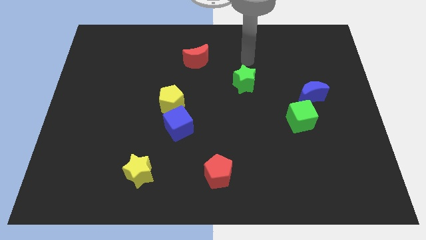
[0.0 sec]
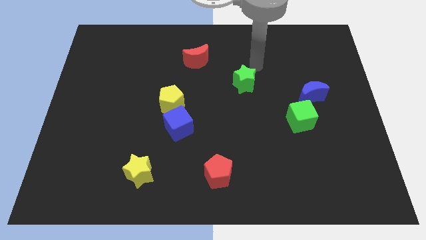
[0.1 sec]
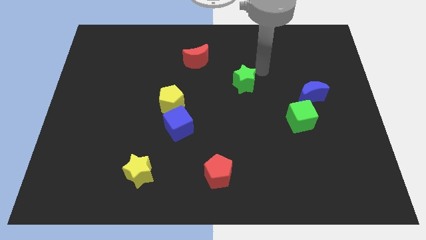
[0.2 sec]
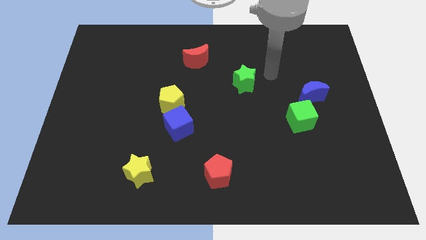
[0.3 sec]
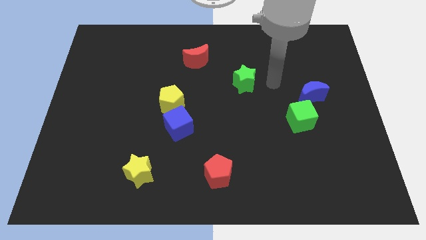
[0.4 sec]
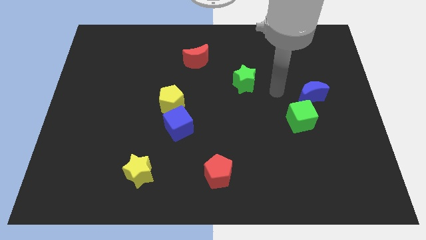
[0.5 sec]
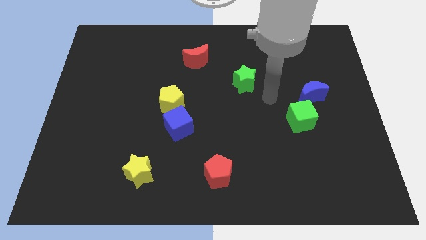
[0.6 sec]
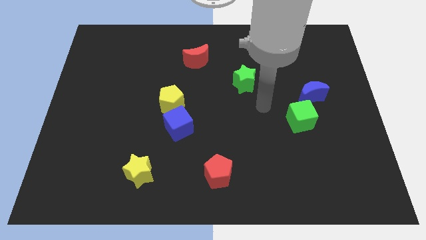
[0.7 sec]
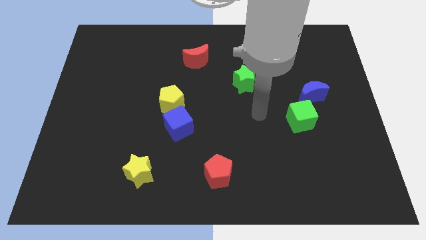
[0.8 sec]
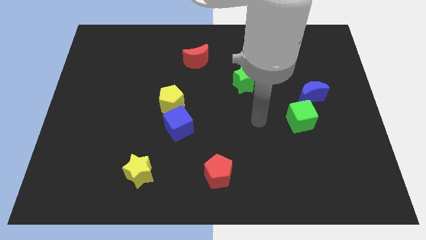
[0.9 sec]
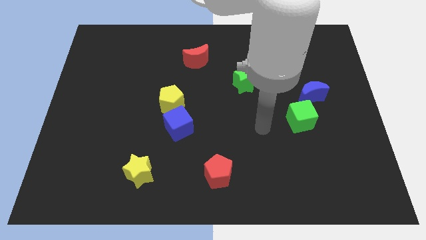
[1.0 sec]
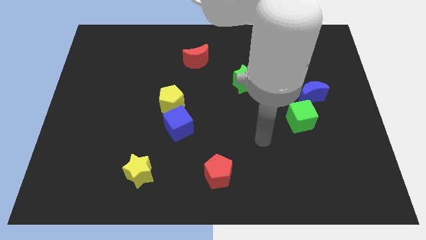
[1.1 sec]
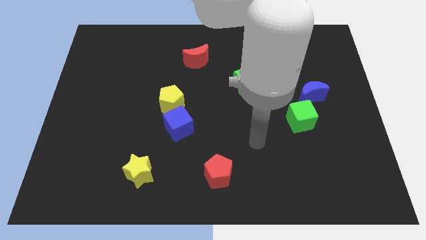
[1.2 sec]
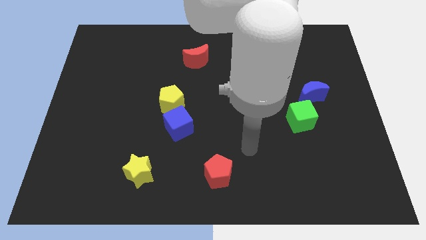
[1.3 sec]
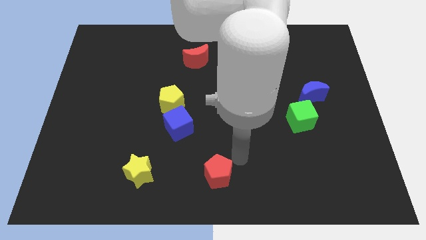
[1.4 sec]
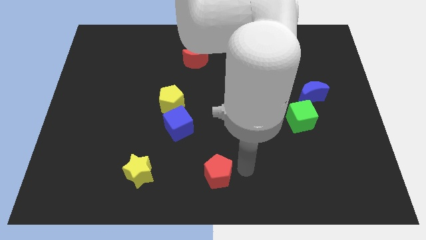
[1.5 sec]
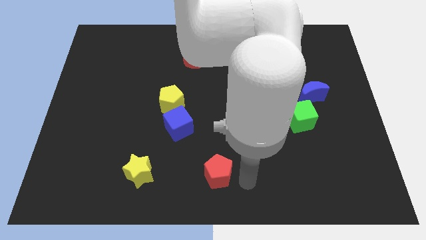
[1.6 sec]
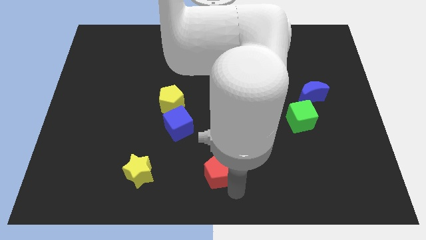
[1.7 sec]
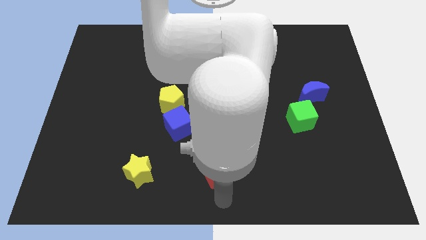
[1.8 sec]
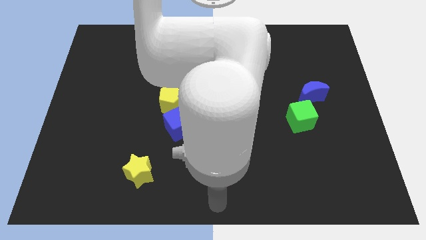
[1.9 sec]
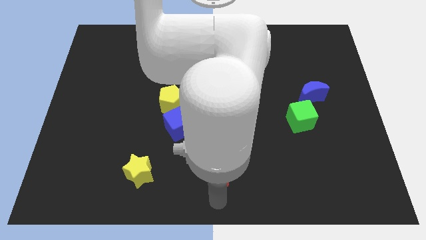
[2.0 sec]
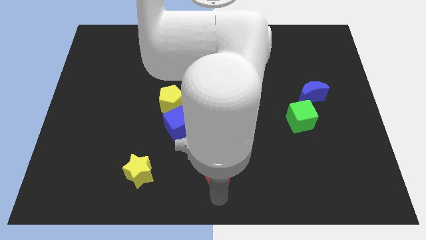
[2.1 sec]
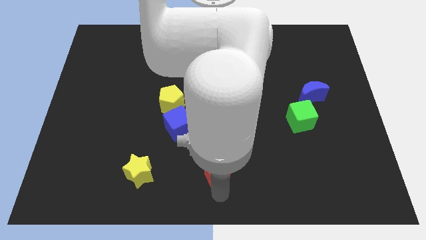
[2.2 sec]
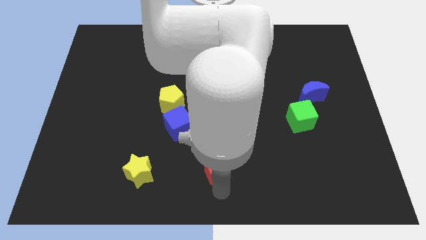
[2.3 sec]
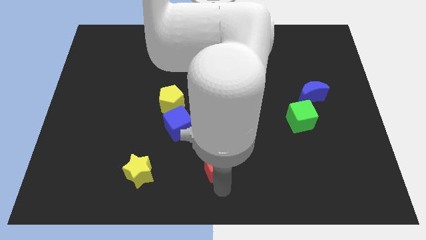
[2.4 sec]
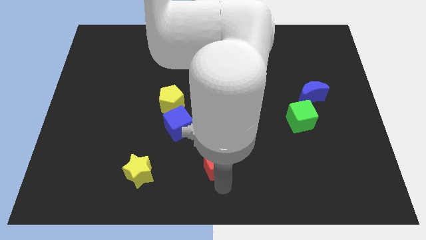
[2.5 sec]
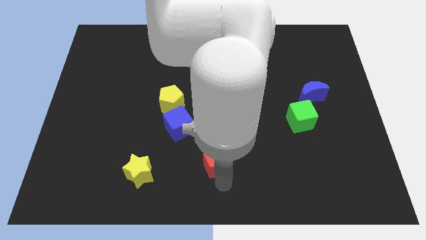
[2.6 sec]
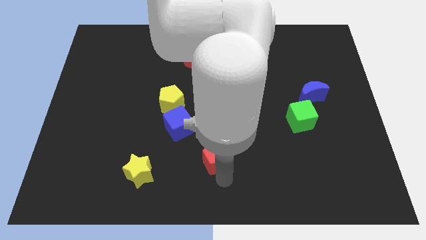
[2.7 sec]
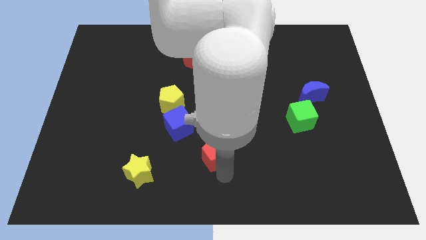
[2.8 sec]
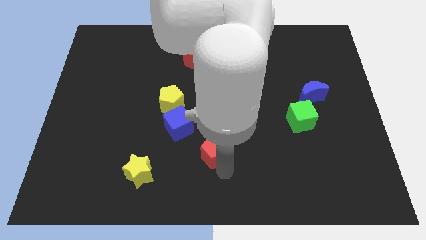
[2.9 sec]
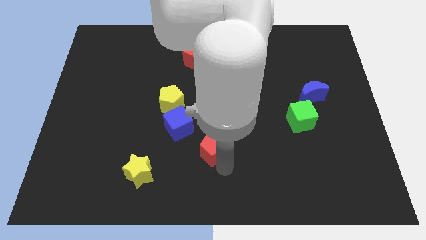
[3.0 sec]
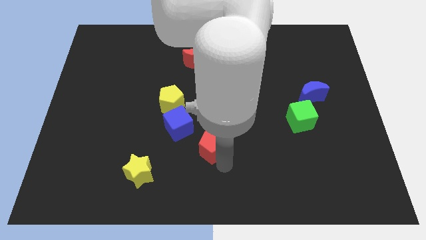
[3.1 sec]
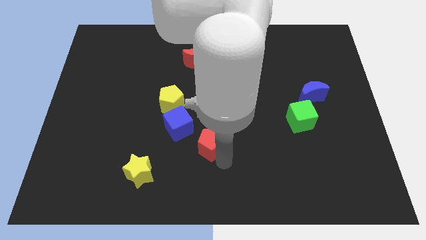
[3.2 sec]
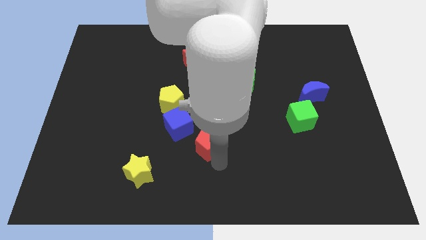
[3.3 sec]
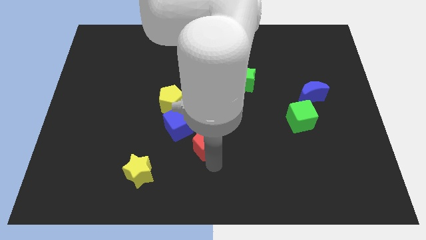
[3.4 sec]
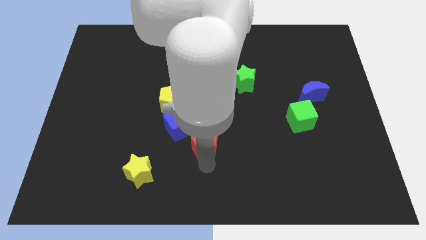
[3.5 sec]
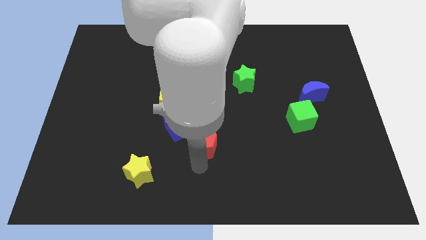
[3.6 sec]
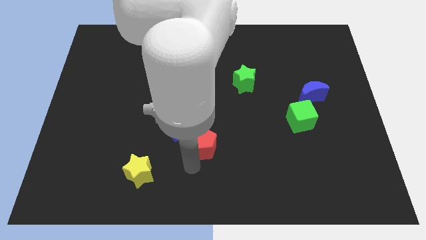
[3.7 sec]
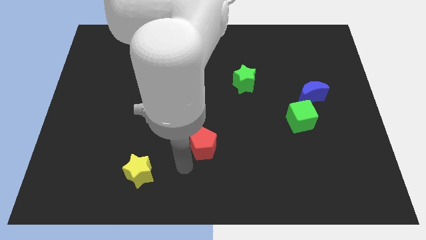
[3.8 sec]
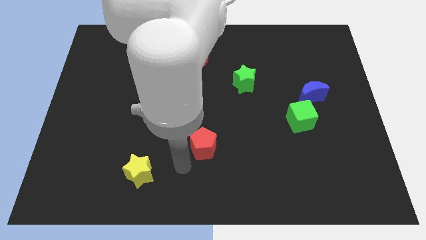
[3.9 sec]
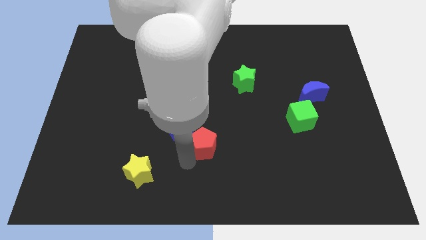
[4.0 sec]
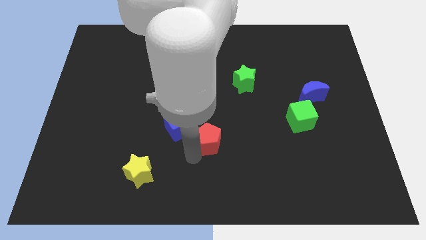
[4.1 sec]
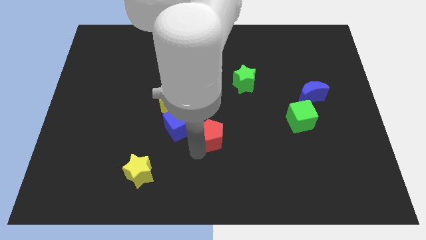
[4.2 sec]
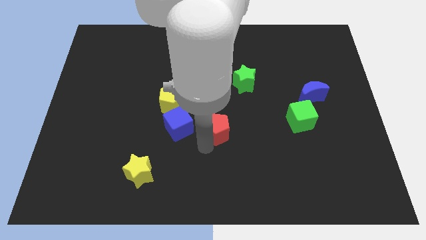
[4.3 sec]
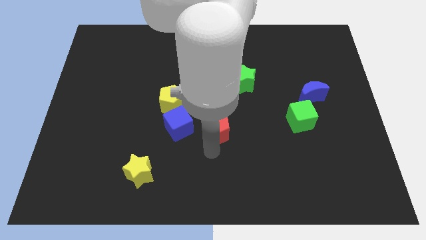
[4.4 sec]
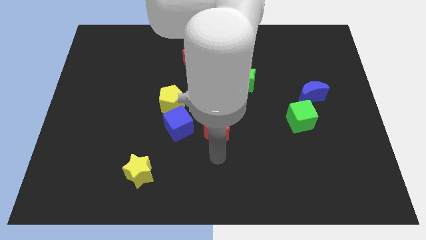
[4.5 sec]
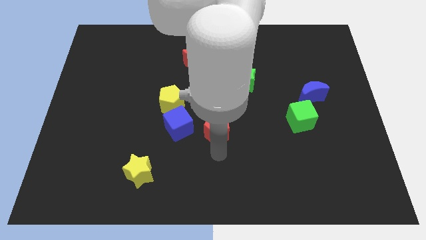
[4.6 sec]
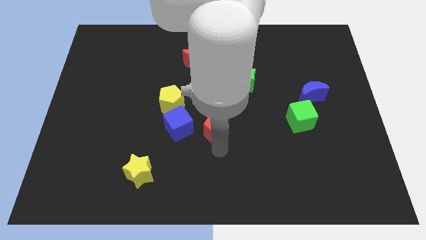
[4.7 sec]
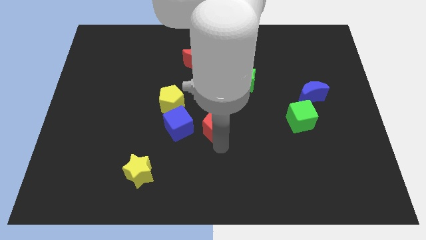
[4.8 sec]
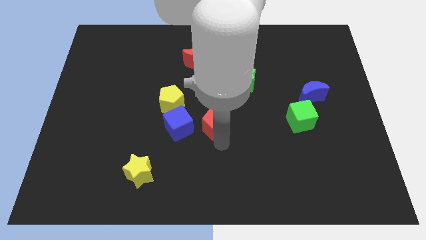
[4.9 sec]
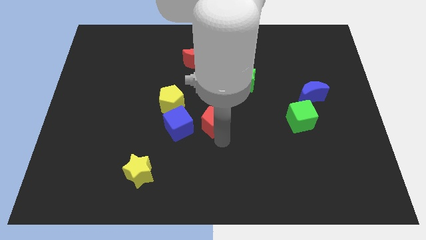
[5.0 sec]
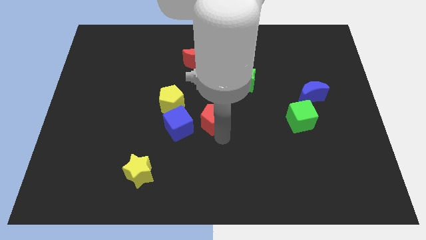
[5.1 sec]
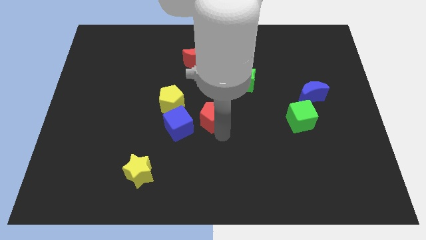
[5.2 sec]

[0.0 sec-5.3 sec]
push the red pentagon to the right side of the yellow pentagon
